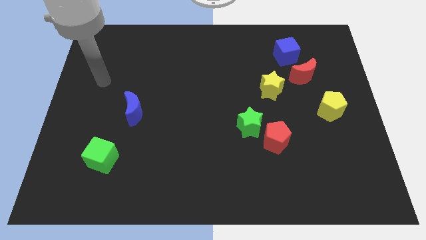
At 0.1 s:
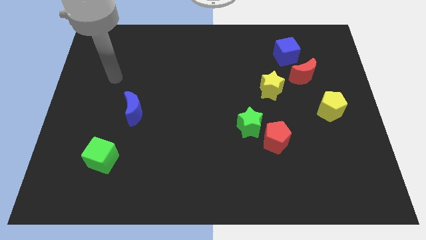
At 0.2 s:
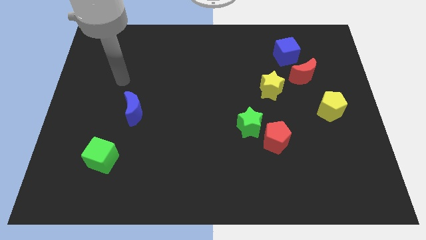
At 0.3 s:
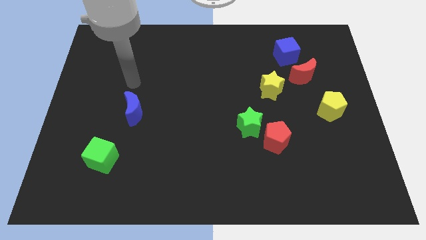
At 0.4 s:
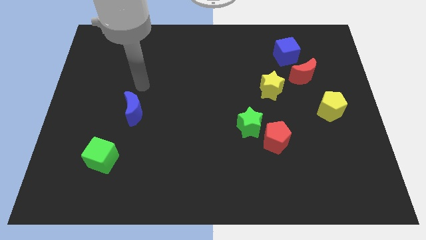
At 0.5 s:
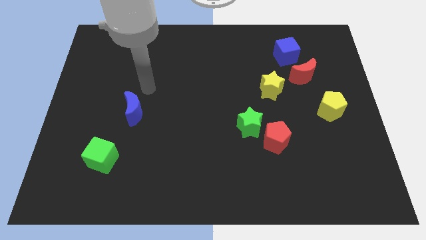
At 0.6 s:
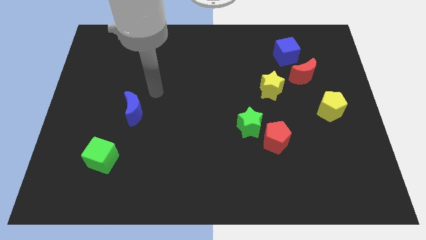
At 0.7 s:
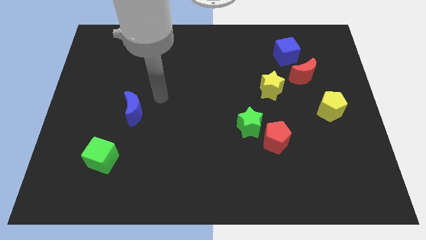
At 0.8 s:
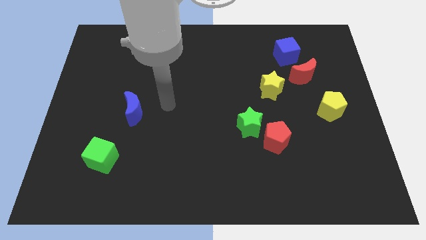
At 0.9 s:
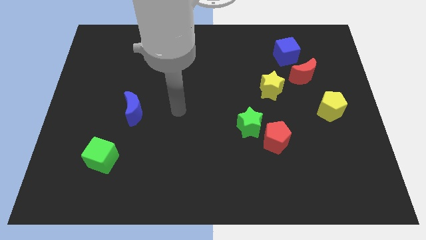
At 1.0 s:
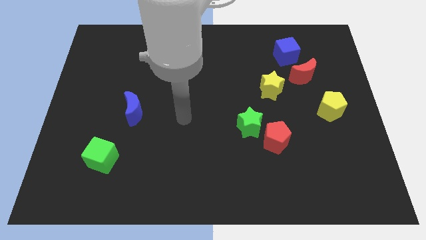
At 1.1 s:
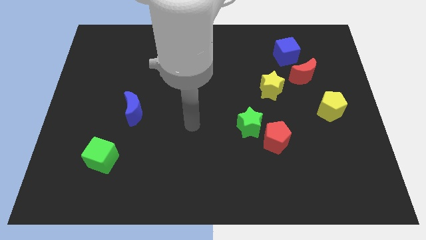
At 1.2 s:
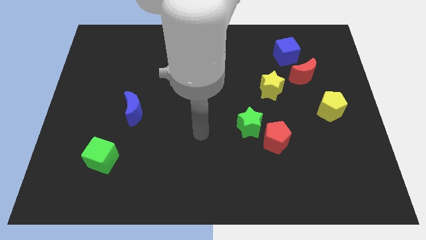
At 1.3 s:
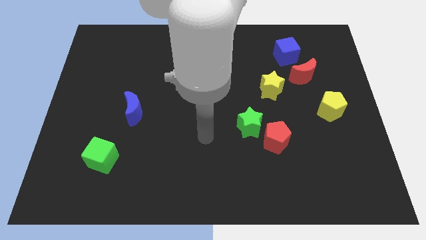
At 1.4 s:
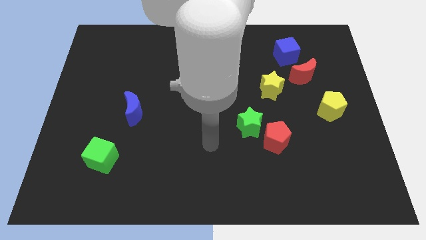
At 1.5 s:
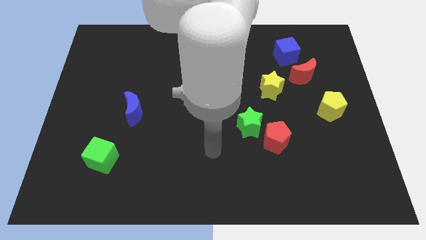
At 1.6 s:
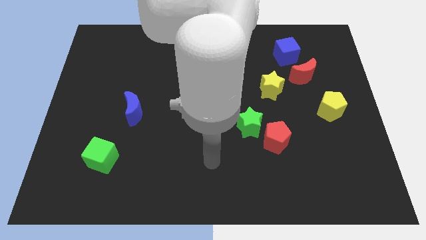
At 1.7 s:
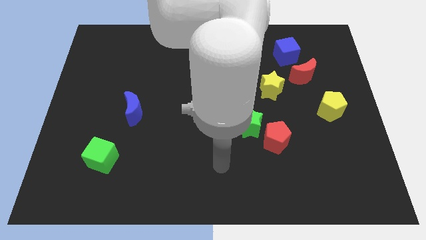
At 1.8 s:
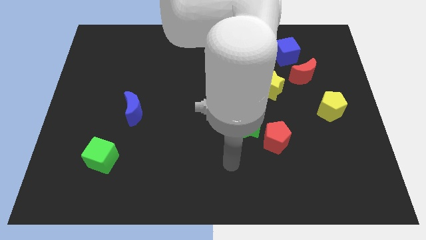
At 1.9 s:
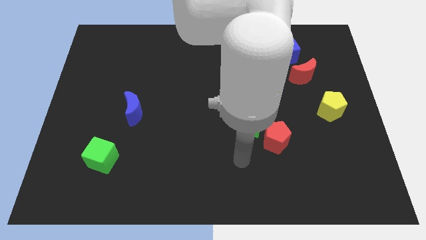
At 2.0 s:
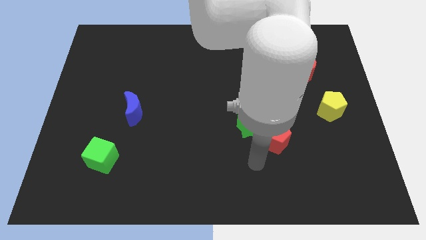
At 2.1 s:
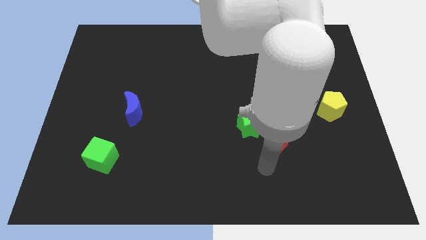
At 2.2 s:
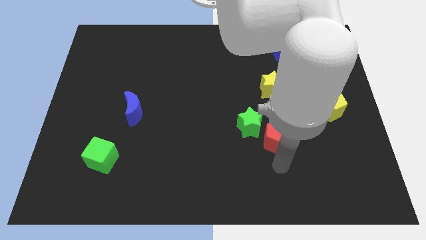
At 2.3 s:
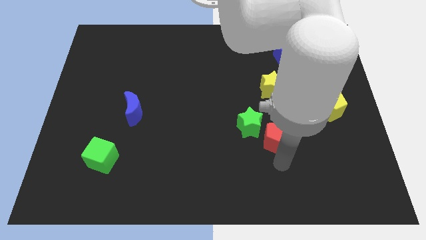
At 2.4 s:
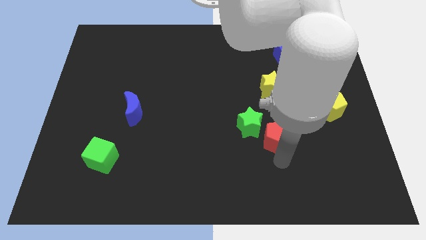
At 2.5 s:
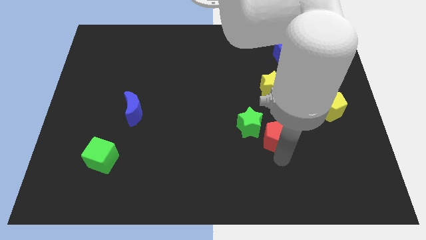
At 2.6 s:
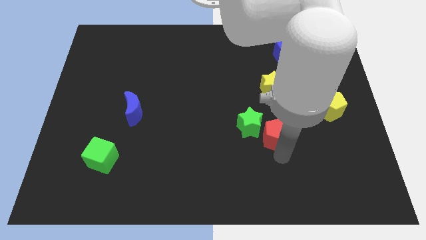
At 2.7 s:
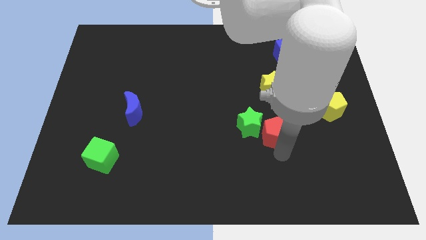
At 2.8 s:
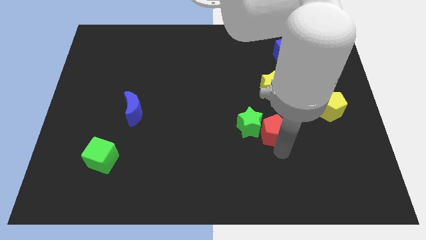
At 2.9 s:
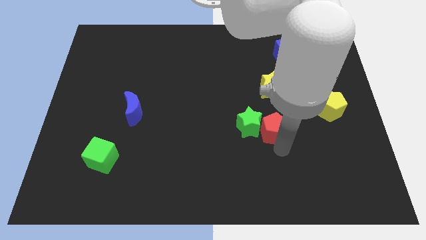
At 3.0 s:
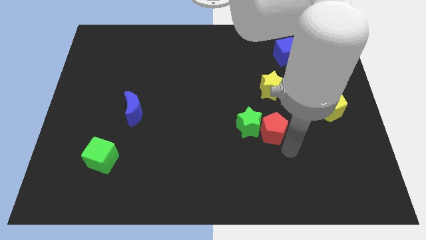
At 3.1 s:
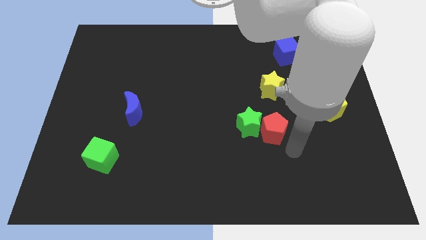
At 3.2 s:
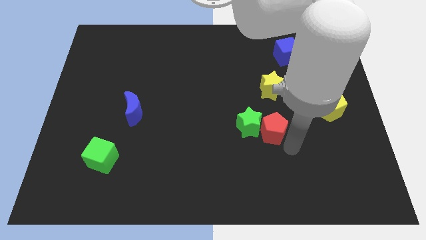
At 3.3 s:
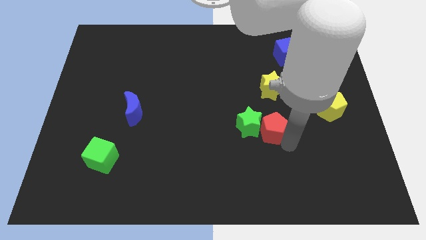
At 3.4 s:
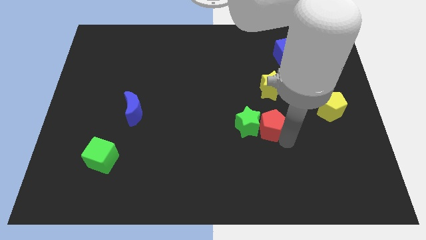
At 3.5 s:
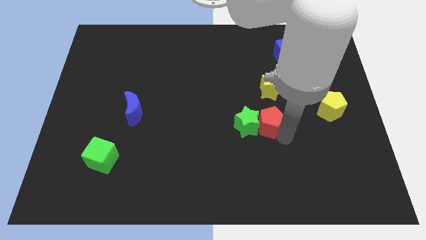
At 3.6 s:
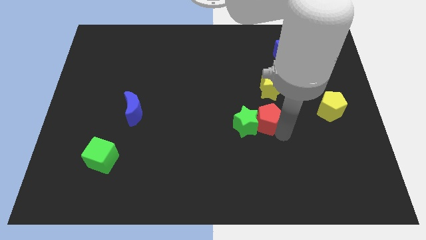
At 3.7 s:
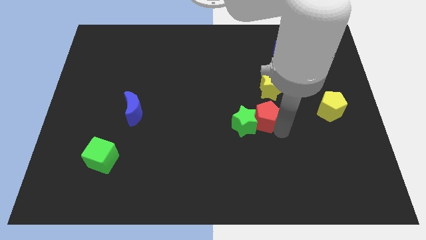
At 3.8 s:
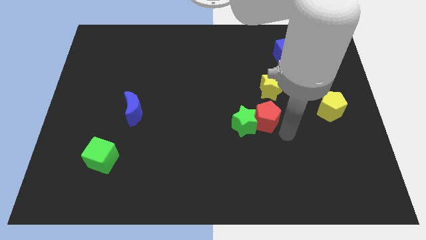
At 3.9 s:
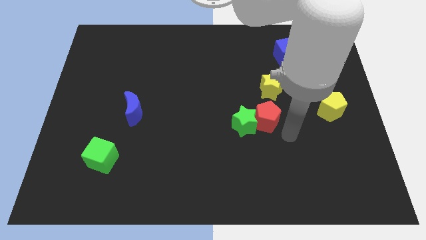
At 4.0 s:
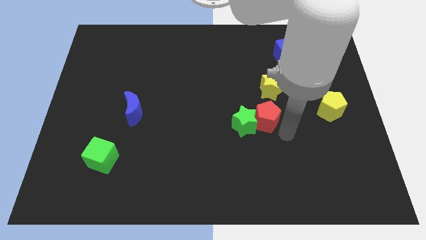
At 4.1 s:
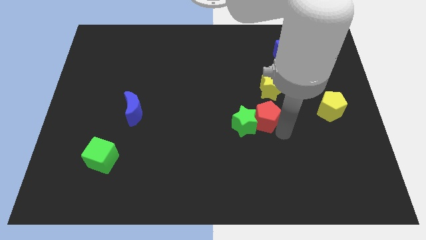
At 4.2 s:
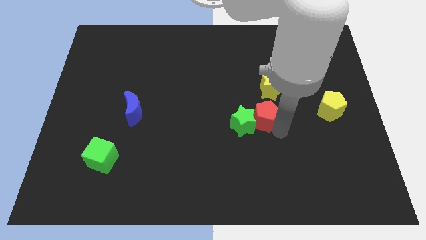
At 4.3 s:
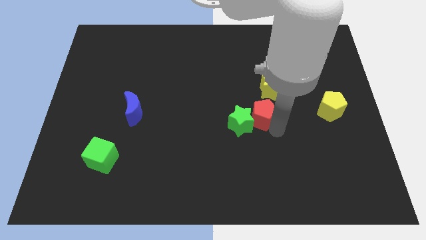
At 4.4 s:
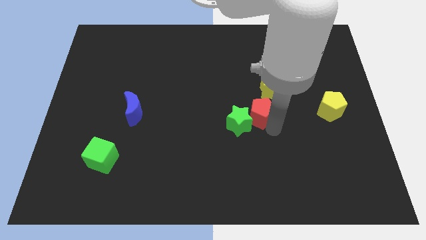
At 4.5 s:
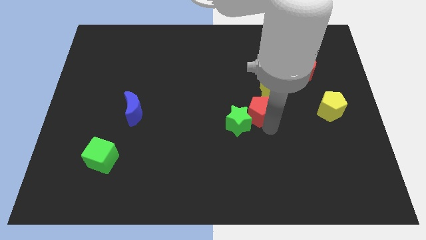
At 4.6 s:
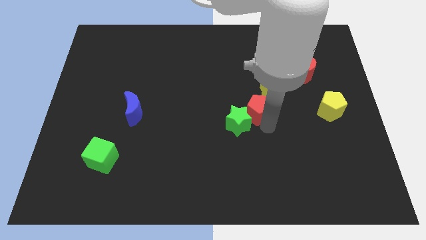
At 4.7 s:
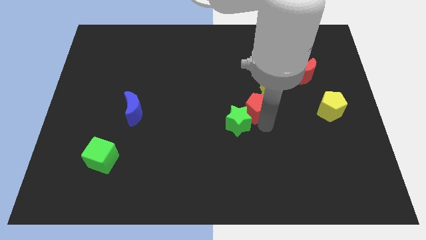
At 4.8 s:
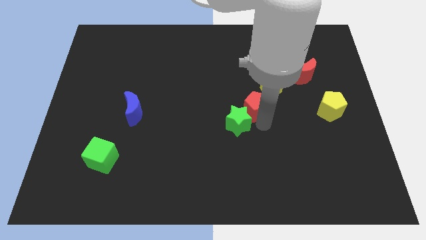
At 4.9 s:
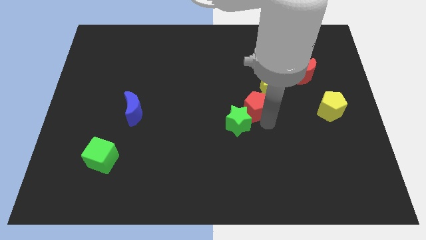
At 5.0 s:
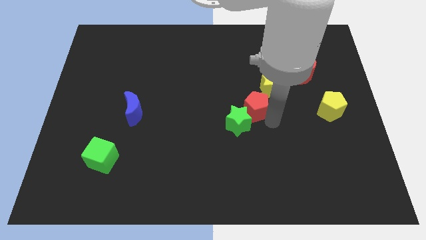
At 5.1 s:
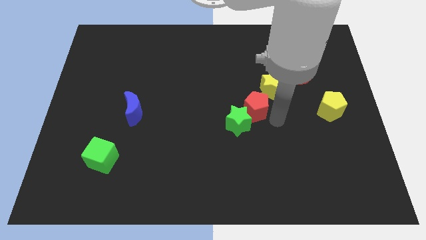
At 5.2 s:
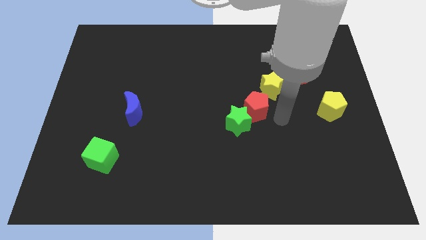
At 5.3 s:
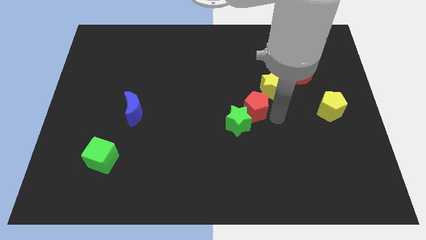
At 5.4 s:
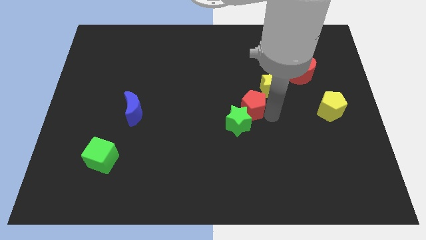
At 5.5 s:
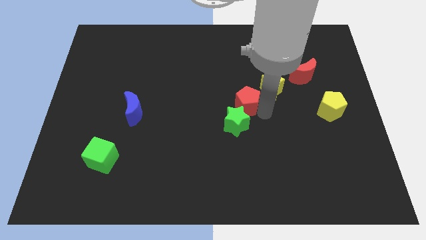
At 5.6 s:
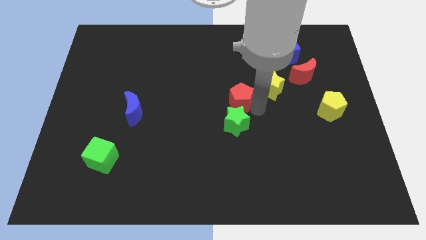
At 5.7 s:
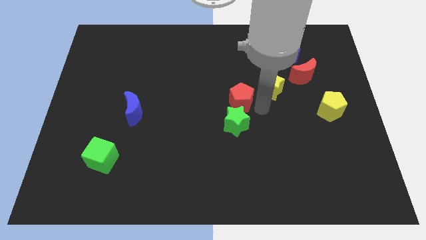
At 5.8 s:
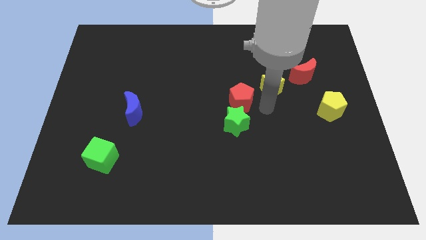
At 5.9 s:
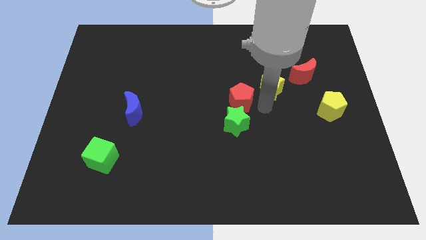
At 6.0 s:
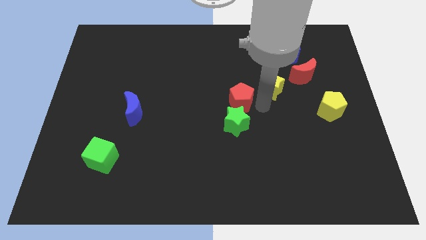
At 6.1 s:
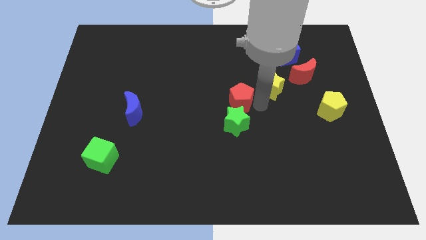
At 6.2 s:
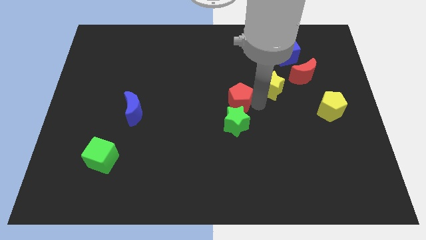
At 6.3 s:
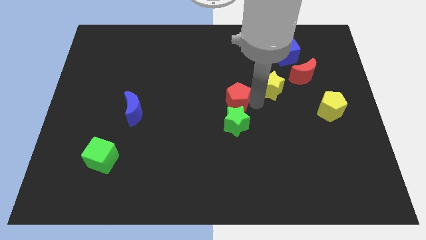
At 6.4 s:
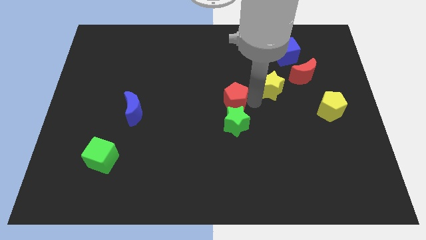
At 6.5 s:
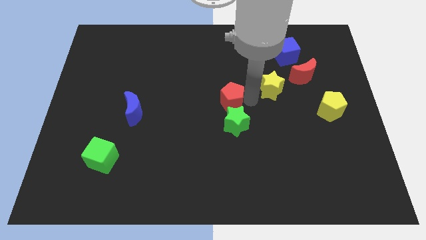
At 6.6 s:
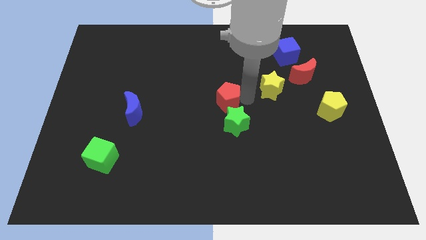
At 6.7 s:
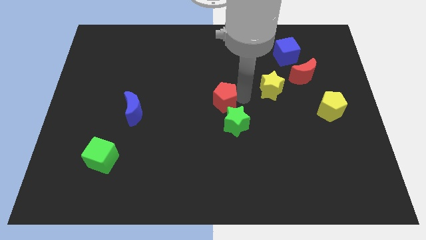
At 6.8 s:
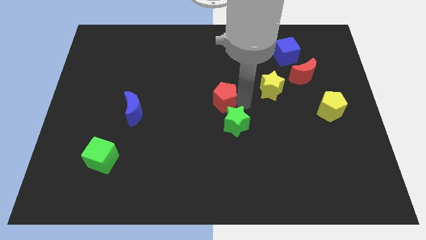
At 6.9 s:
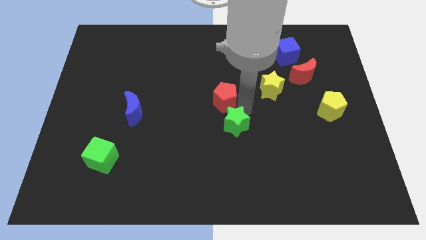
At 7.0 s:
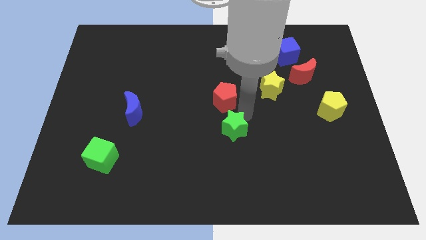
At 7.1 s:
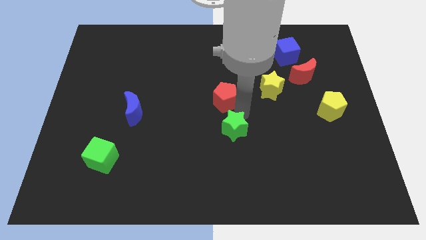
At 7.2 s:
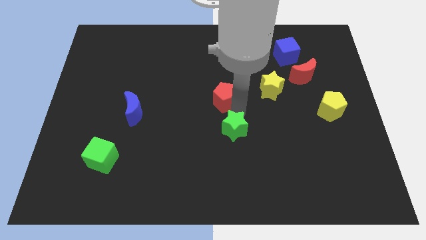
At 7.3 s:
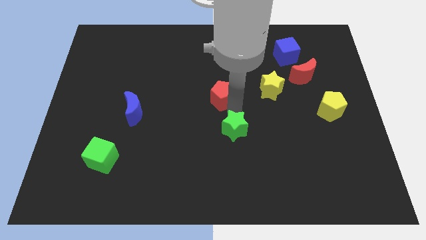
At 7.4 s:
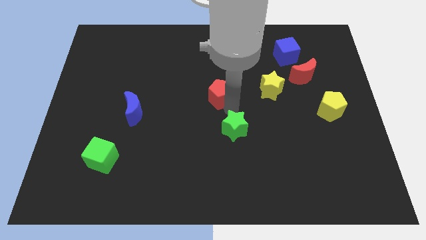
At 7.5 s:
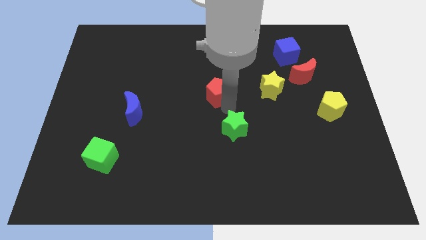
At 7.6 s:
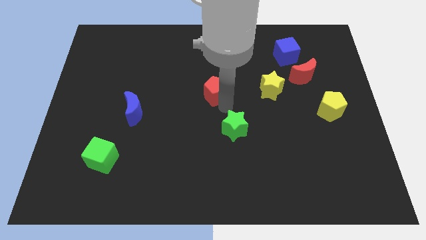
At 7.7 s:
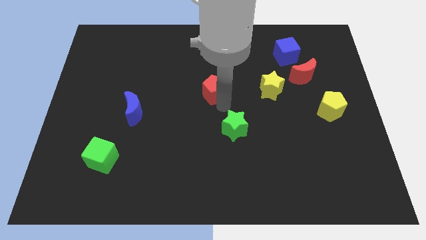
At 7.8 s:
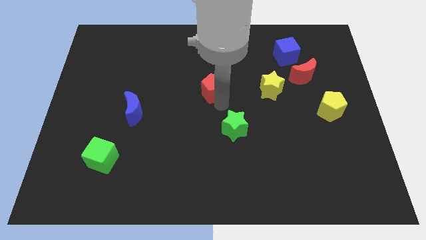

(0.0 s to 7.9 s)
slide the red pentagon up and to the left

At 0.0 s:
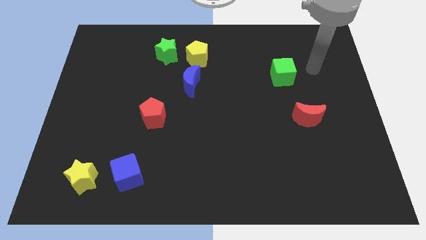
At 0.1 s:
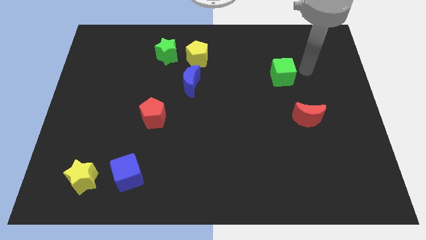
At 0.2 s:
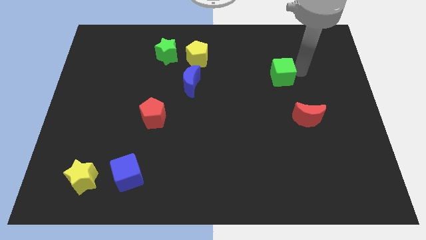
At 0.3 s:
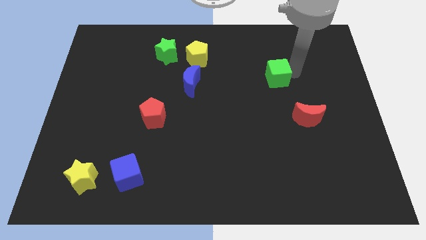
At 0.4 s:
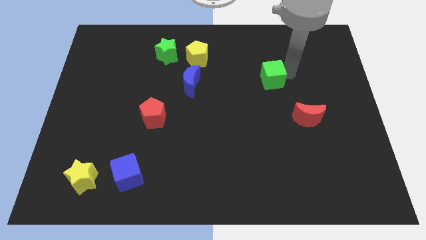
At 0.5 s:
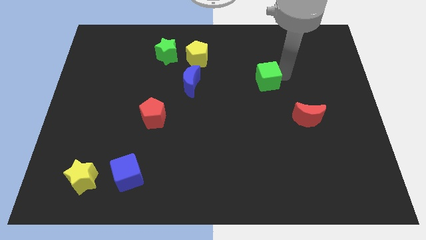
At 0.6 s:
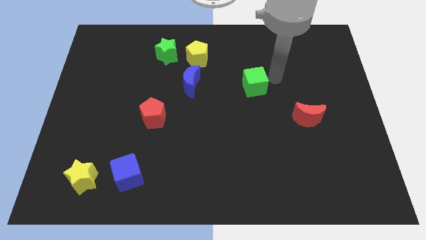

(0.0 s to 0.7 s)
move the green cube slightly to the left
